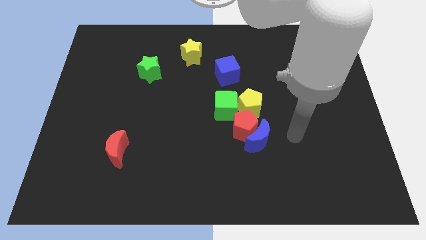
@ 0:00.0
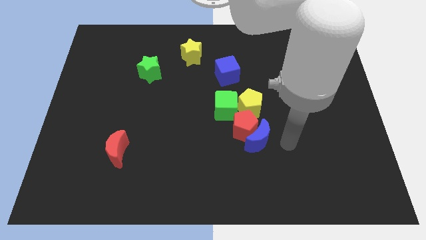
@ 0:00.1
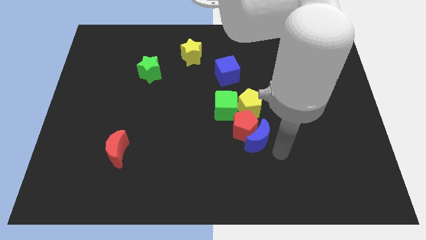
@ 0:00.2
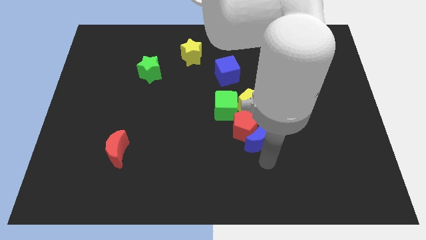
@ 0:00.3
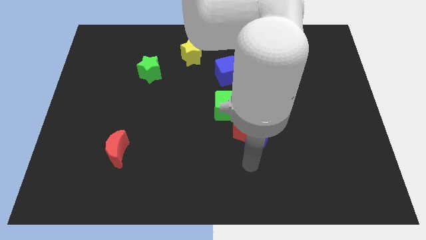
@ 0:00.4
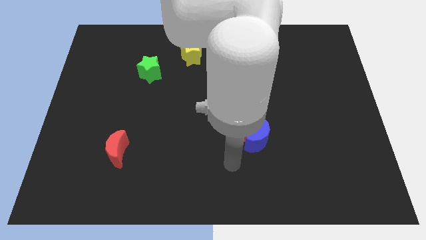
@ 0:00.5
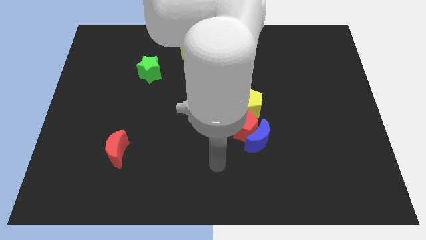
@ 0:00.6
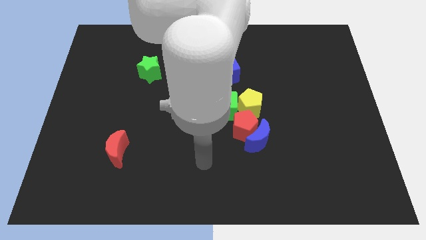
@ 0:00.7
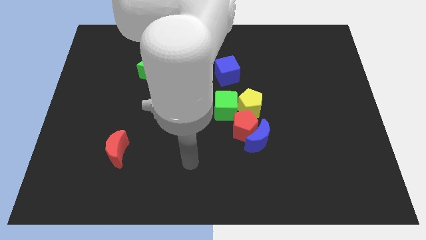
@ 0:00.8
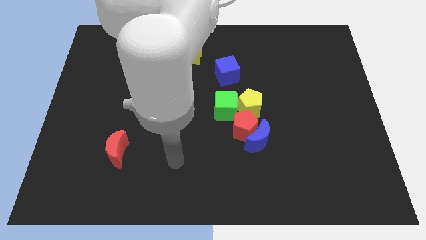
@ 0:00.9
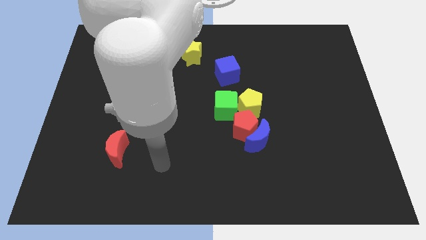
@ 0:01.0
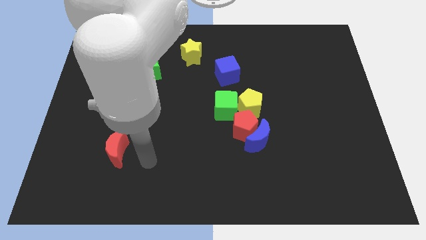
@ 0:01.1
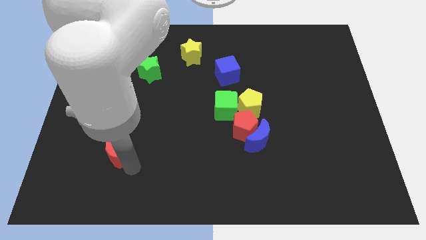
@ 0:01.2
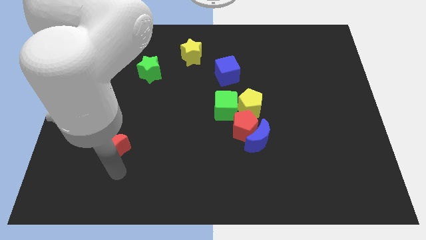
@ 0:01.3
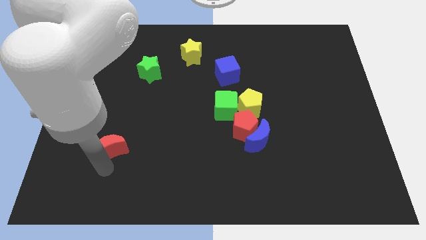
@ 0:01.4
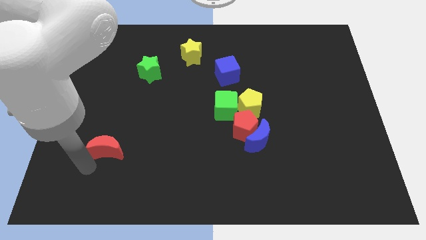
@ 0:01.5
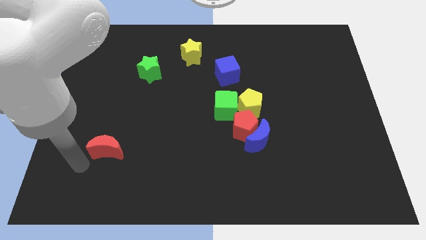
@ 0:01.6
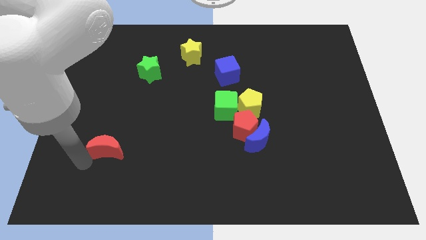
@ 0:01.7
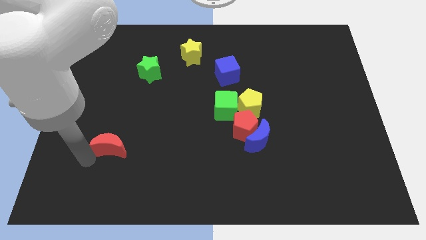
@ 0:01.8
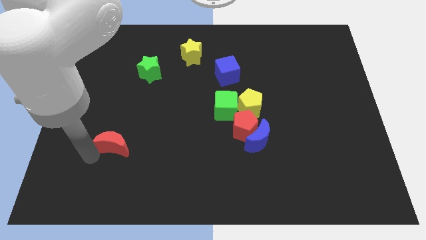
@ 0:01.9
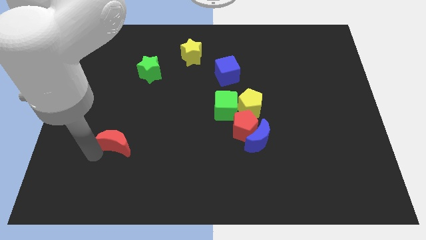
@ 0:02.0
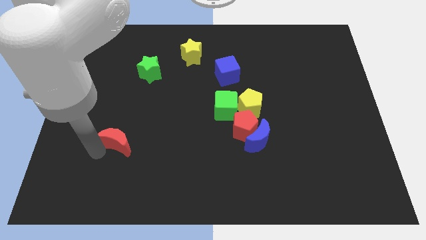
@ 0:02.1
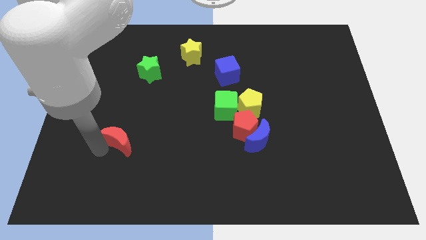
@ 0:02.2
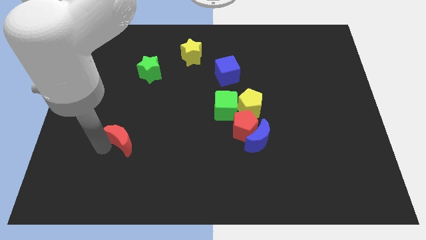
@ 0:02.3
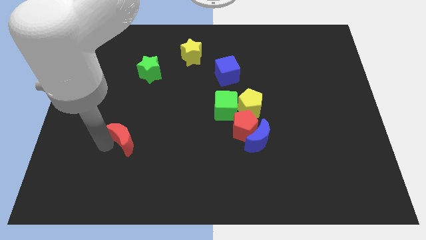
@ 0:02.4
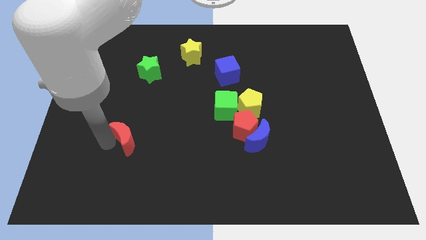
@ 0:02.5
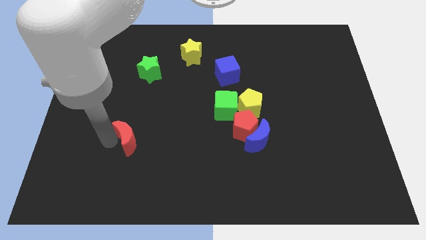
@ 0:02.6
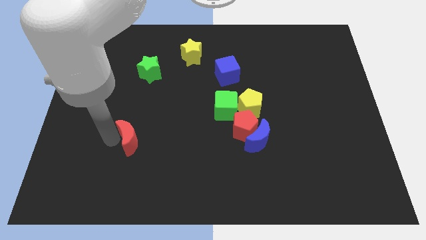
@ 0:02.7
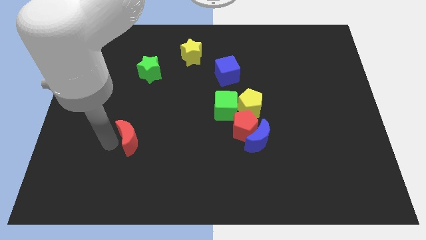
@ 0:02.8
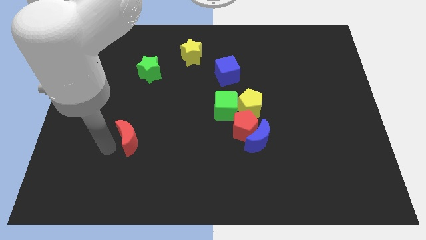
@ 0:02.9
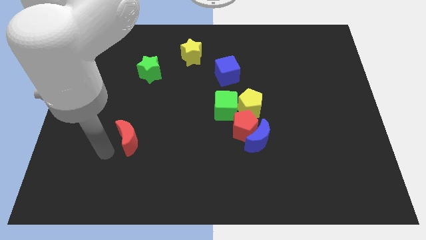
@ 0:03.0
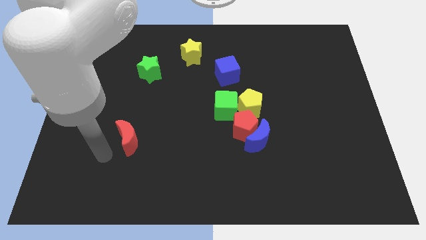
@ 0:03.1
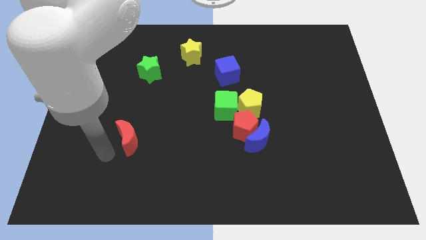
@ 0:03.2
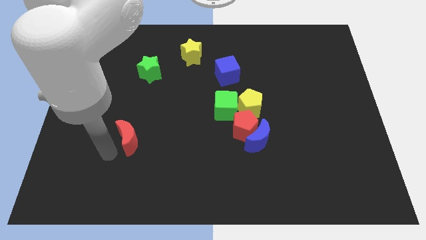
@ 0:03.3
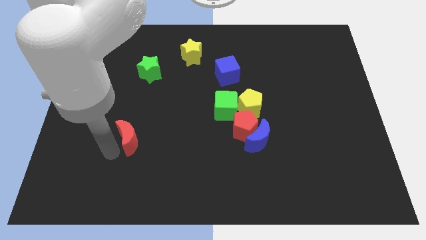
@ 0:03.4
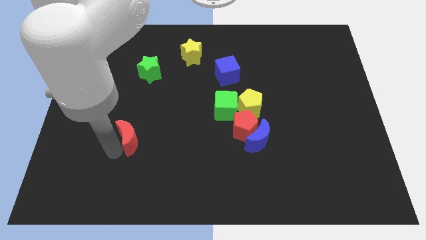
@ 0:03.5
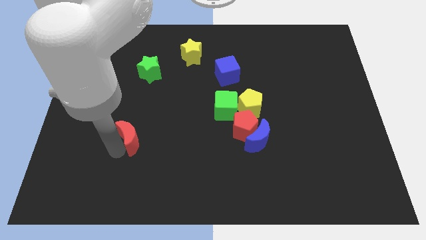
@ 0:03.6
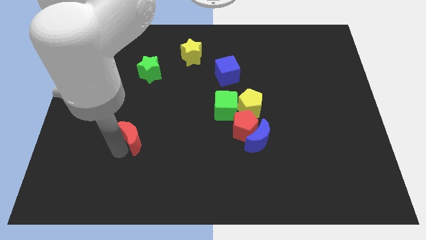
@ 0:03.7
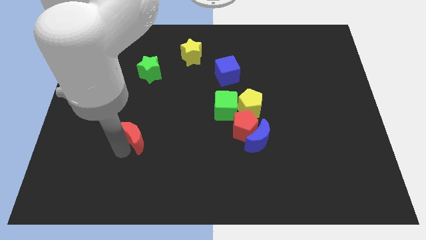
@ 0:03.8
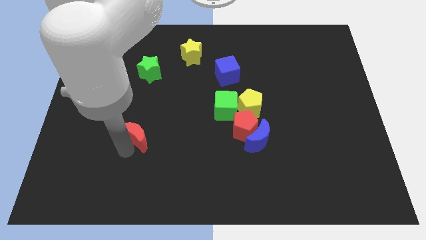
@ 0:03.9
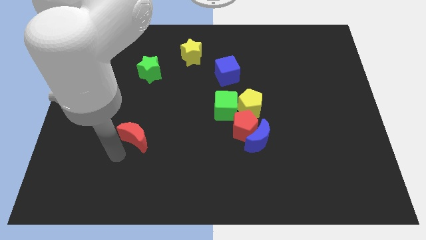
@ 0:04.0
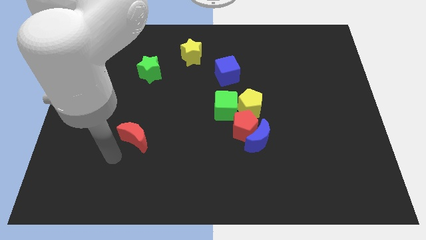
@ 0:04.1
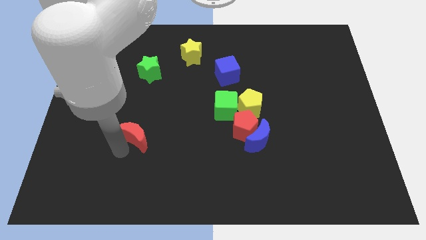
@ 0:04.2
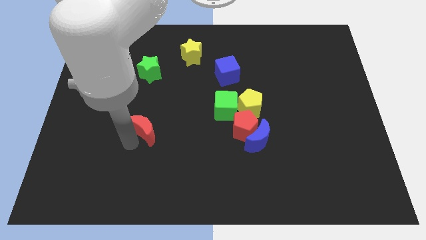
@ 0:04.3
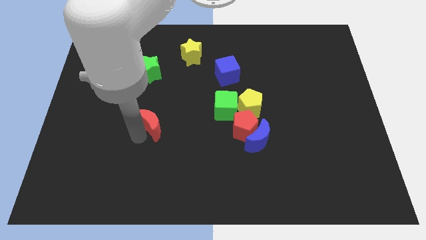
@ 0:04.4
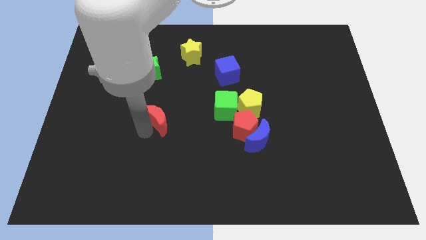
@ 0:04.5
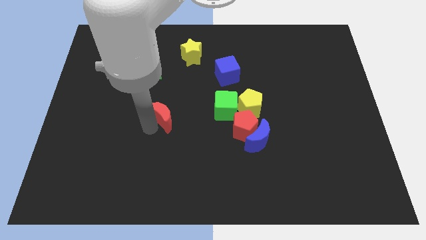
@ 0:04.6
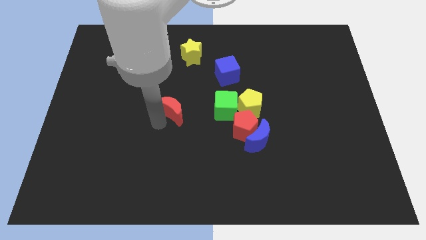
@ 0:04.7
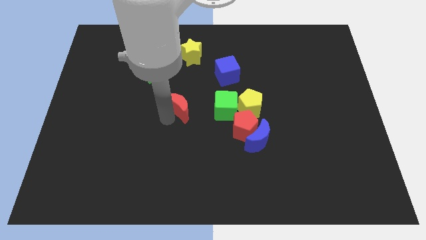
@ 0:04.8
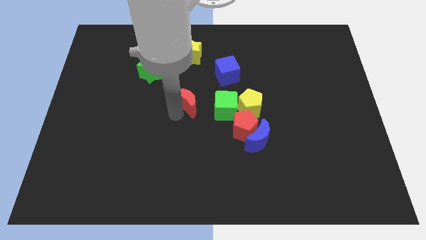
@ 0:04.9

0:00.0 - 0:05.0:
put the red moon to the bottom side of the yellow star

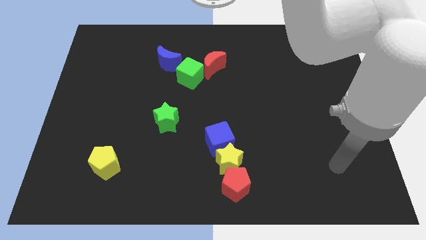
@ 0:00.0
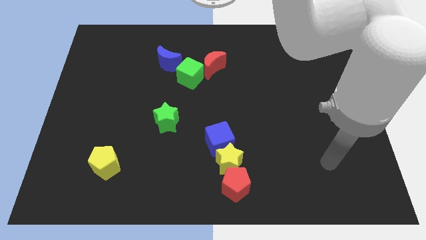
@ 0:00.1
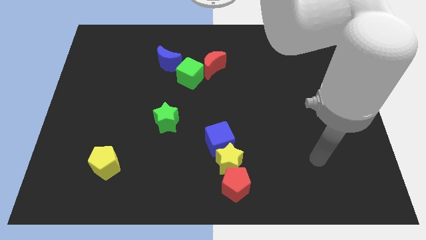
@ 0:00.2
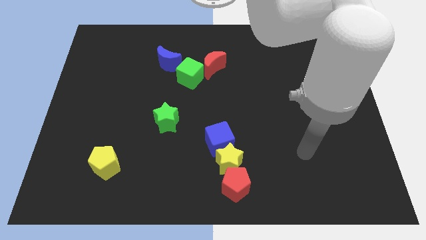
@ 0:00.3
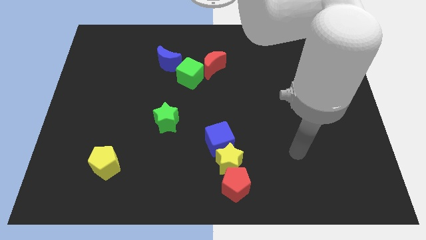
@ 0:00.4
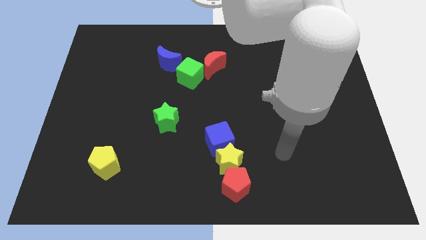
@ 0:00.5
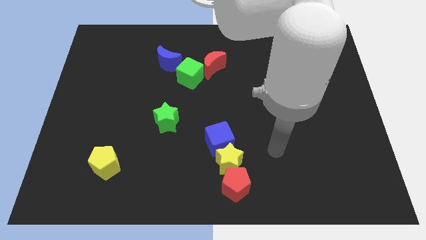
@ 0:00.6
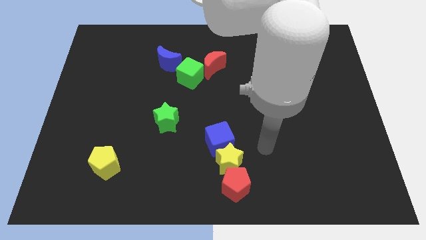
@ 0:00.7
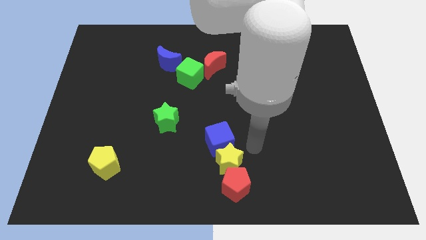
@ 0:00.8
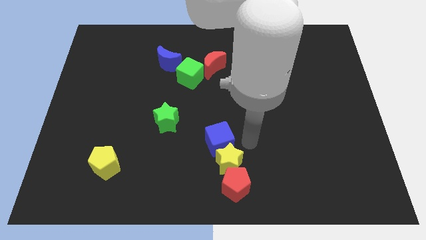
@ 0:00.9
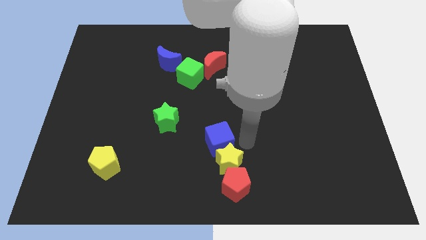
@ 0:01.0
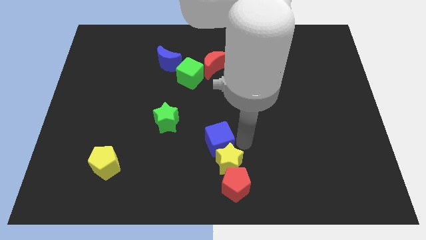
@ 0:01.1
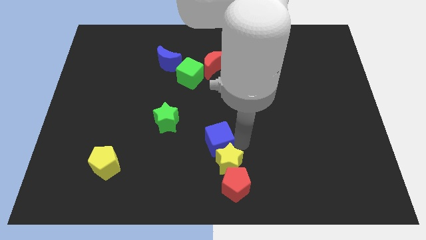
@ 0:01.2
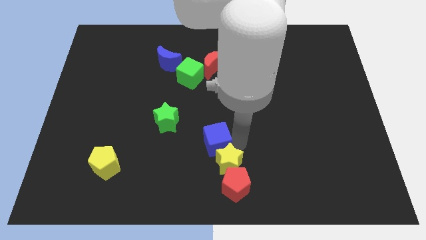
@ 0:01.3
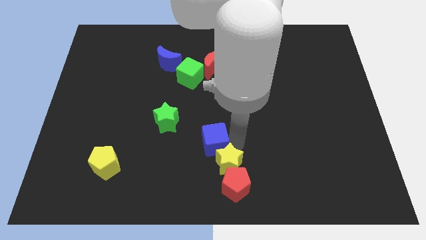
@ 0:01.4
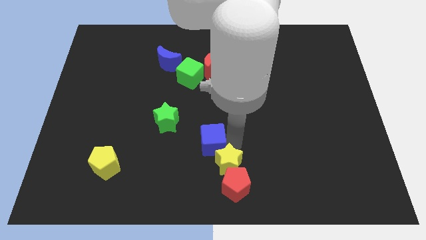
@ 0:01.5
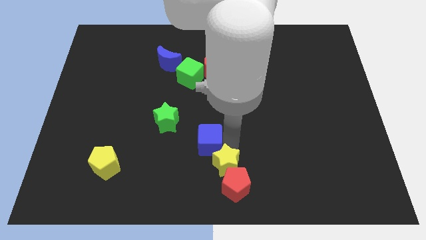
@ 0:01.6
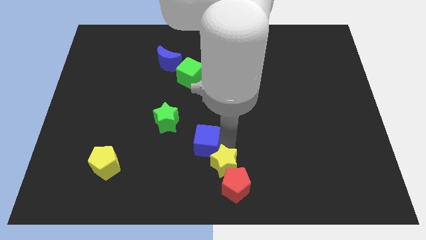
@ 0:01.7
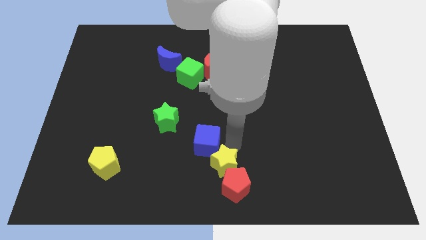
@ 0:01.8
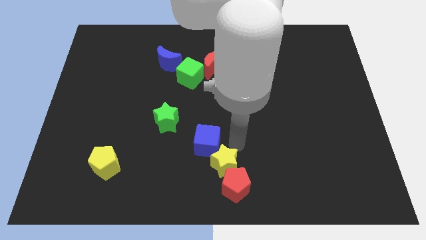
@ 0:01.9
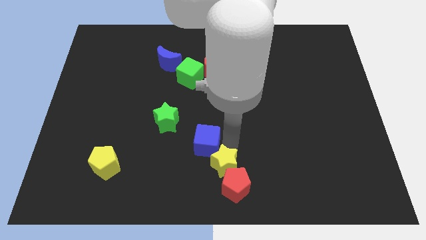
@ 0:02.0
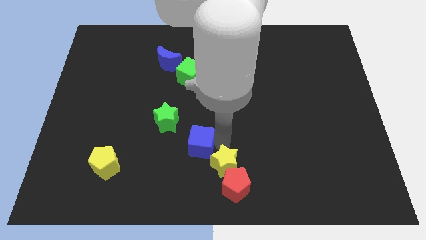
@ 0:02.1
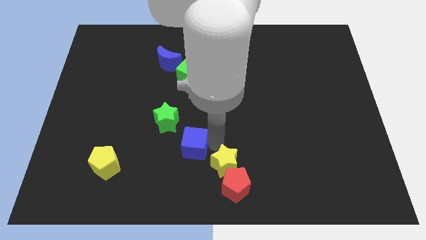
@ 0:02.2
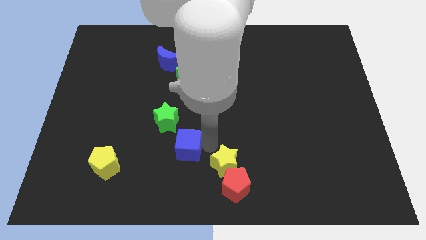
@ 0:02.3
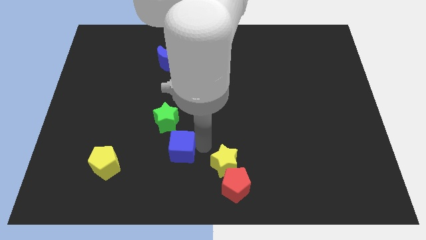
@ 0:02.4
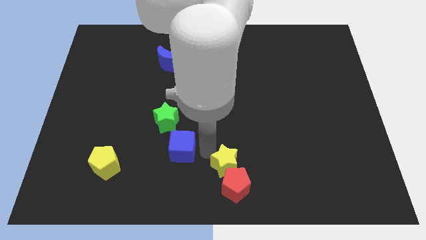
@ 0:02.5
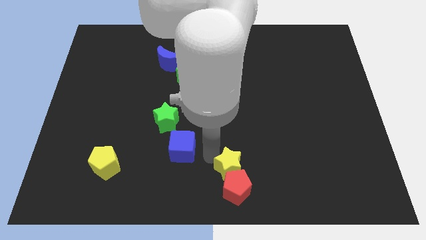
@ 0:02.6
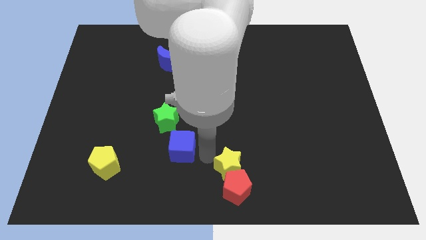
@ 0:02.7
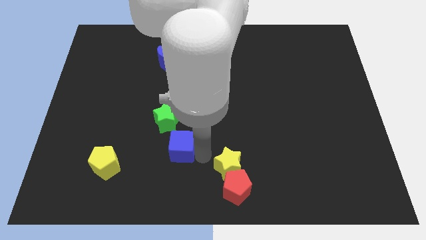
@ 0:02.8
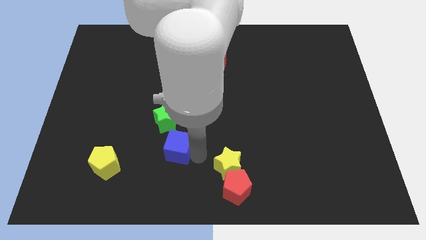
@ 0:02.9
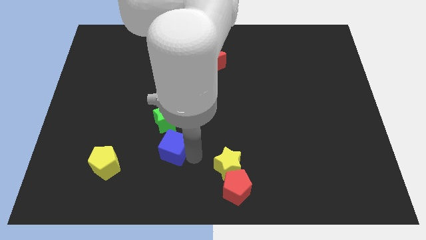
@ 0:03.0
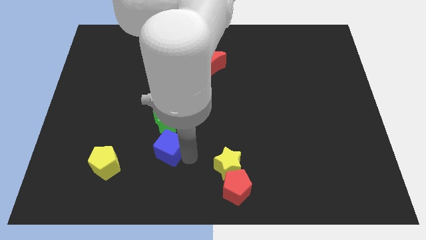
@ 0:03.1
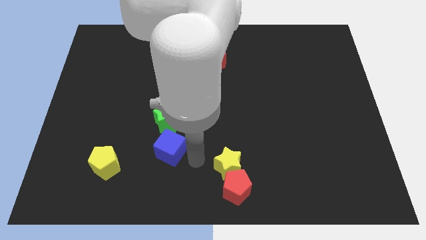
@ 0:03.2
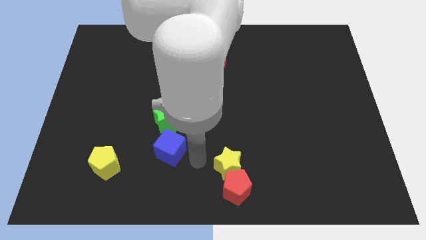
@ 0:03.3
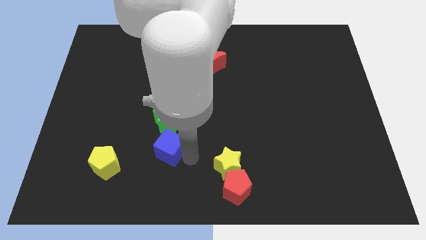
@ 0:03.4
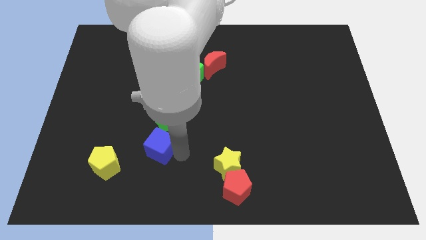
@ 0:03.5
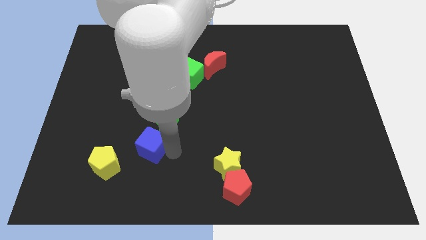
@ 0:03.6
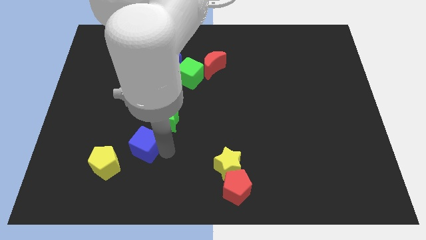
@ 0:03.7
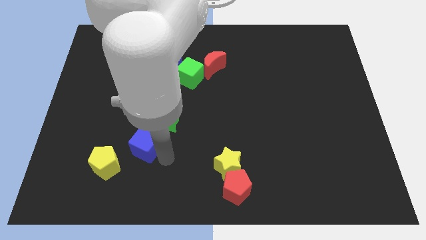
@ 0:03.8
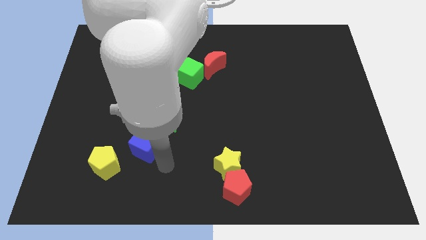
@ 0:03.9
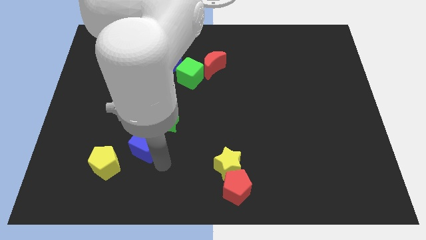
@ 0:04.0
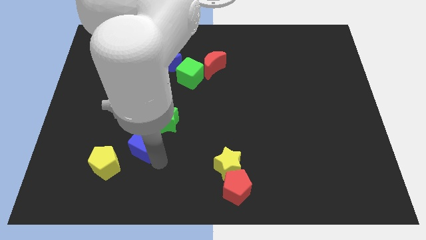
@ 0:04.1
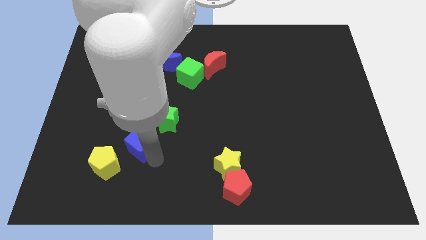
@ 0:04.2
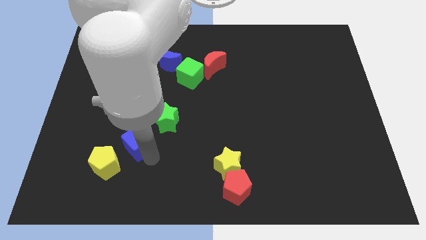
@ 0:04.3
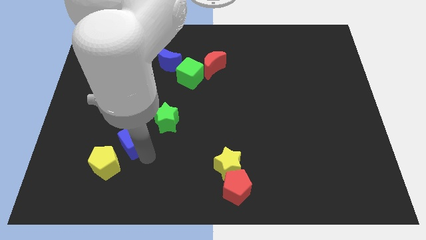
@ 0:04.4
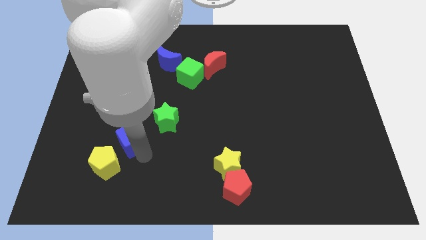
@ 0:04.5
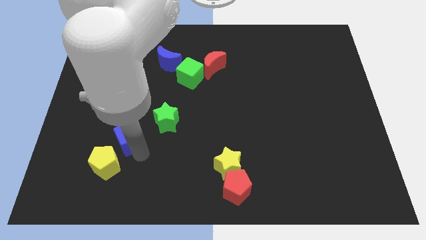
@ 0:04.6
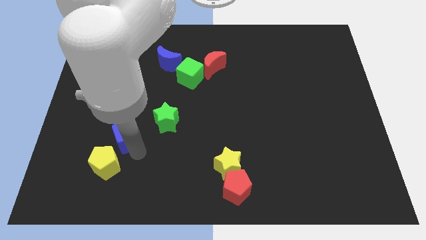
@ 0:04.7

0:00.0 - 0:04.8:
push the blue cube just left of the green star
